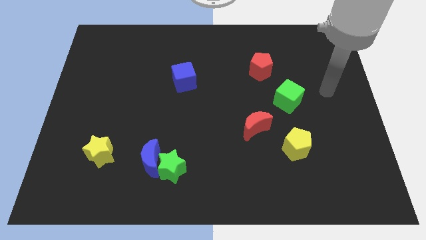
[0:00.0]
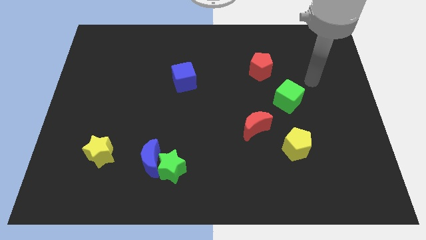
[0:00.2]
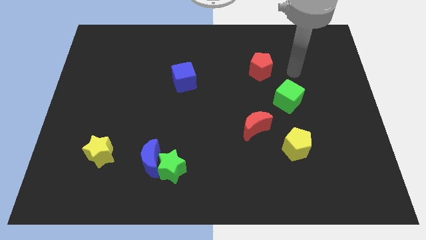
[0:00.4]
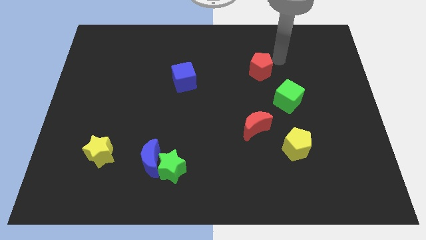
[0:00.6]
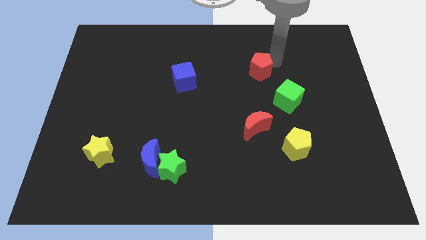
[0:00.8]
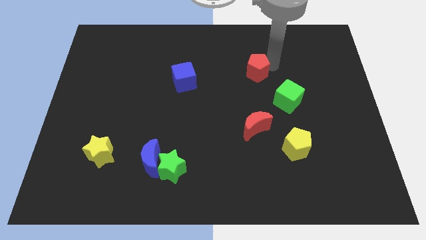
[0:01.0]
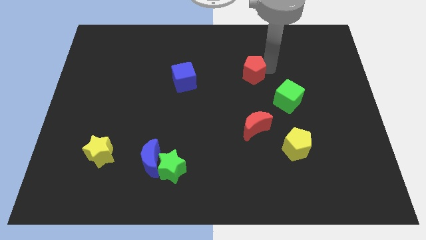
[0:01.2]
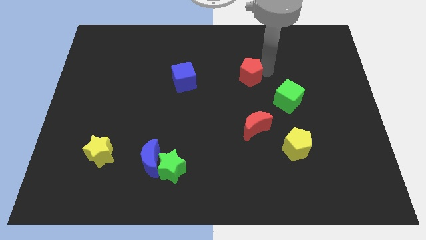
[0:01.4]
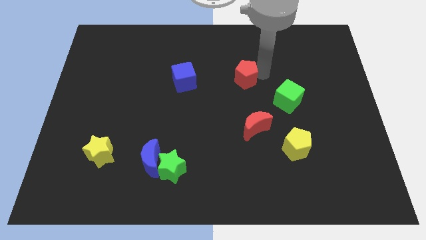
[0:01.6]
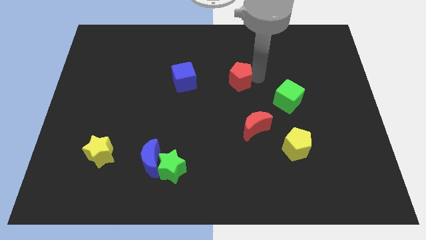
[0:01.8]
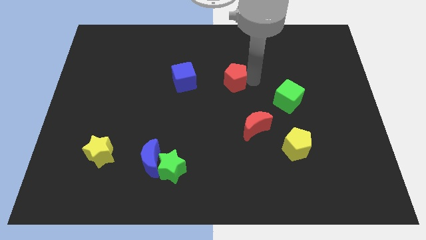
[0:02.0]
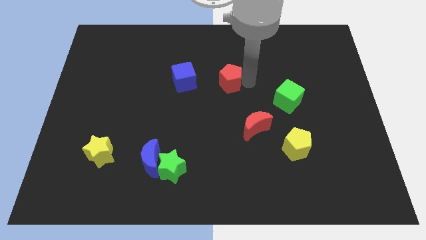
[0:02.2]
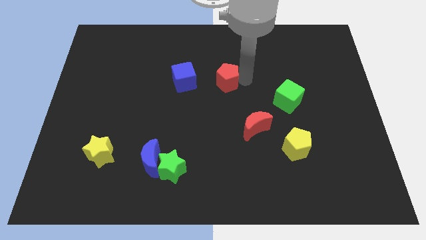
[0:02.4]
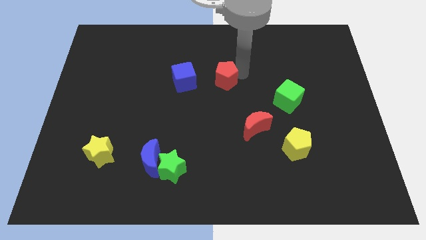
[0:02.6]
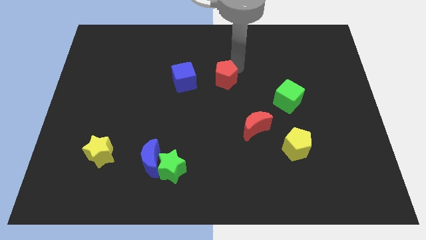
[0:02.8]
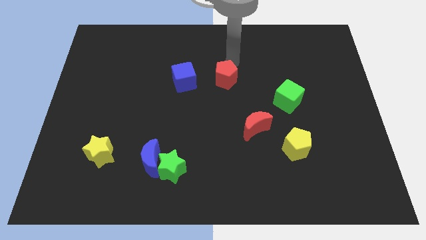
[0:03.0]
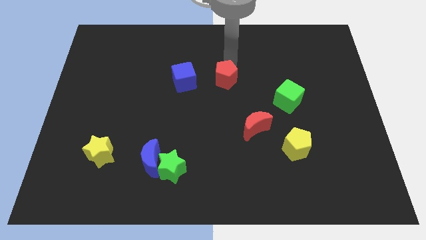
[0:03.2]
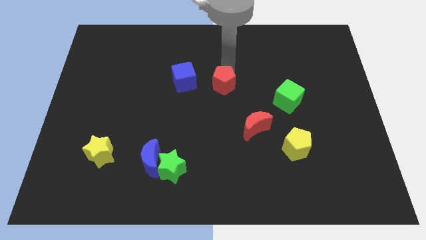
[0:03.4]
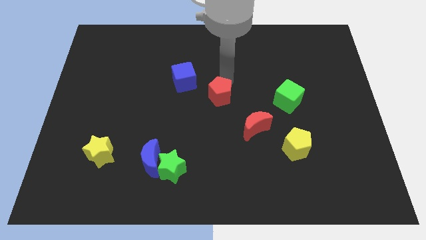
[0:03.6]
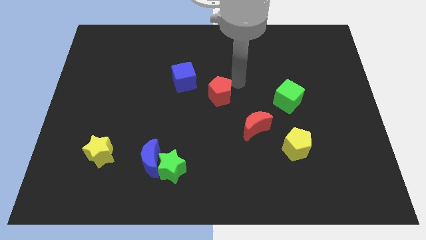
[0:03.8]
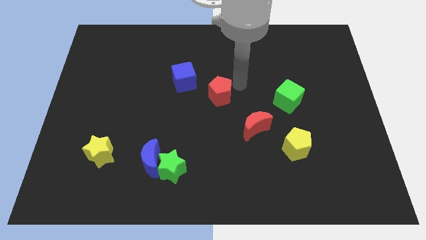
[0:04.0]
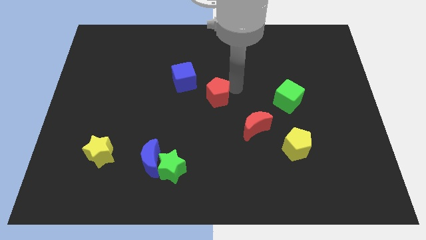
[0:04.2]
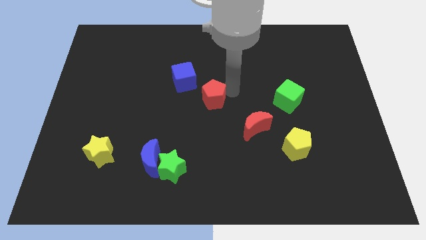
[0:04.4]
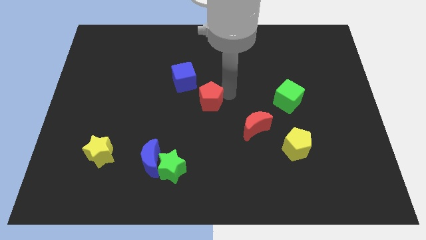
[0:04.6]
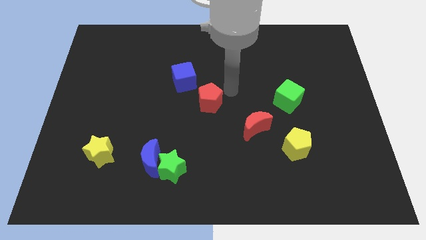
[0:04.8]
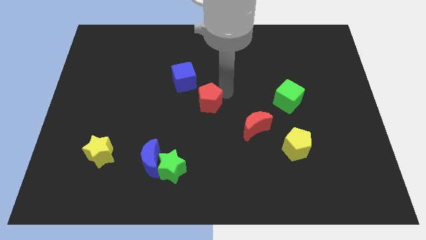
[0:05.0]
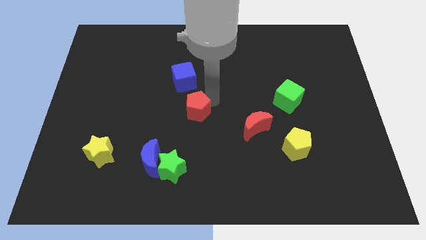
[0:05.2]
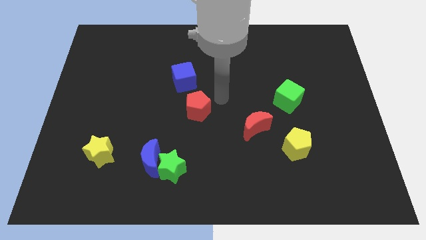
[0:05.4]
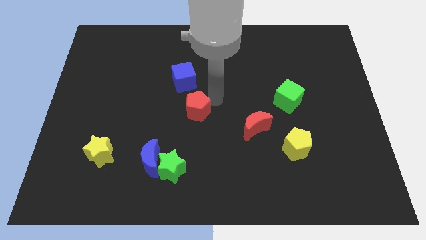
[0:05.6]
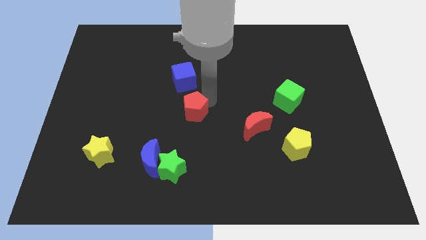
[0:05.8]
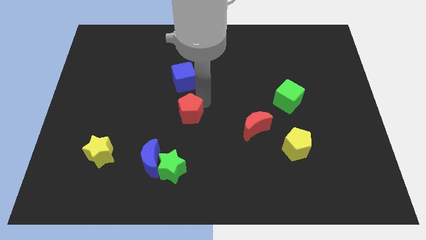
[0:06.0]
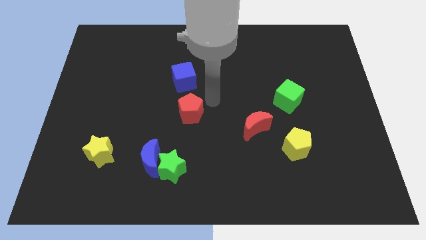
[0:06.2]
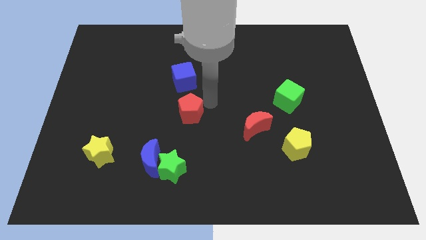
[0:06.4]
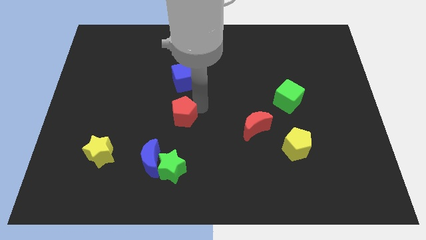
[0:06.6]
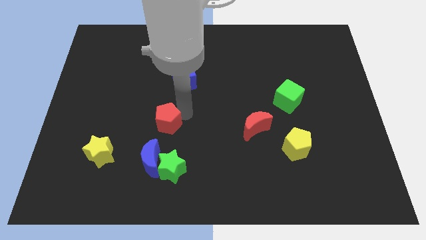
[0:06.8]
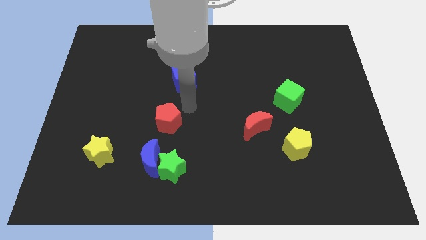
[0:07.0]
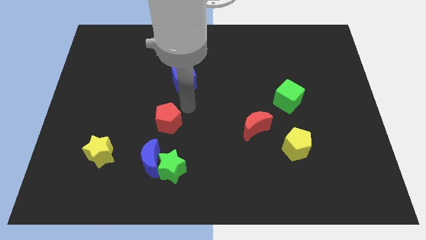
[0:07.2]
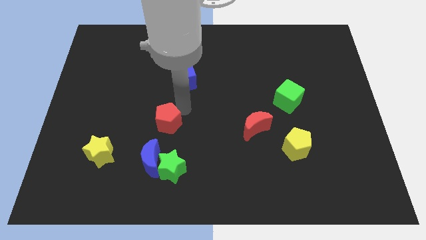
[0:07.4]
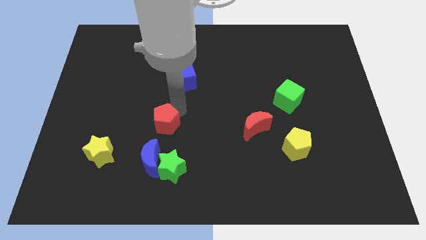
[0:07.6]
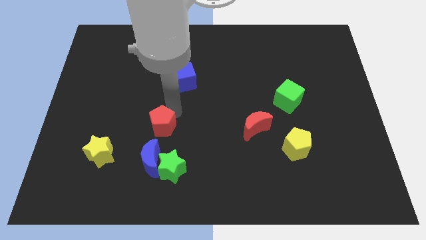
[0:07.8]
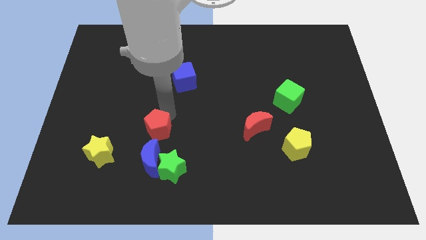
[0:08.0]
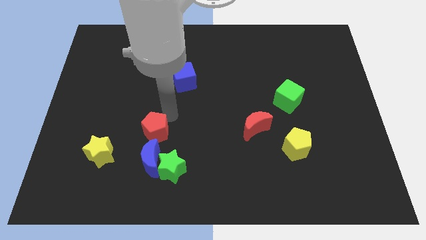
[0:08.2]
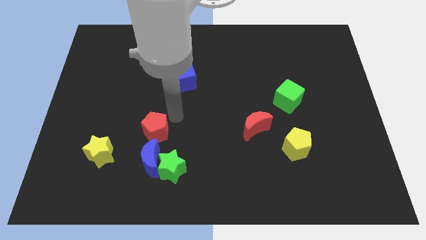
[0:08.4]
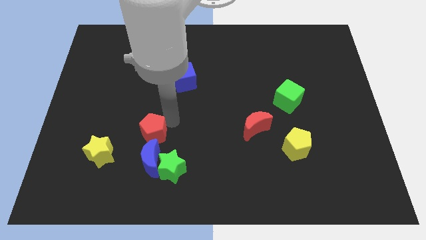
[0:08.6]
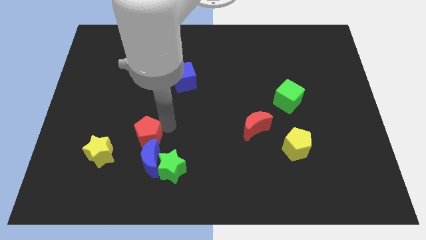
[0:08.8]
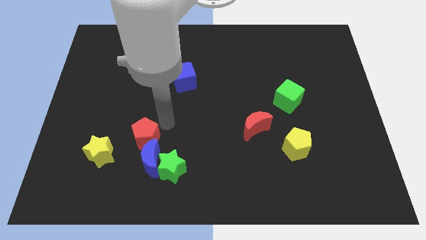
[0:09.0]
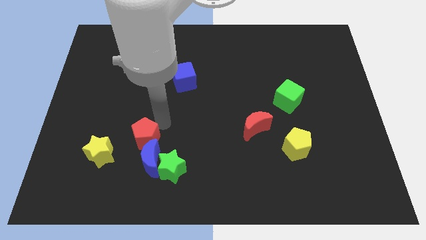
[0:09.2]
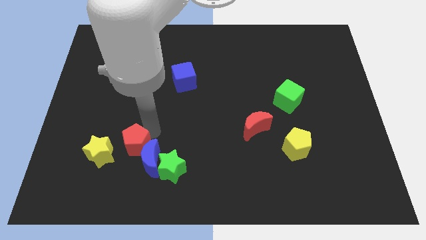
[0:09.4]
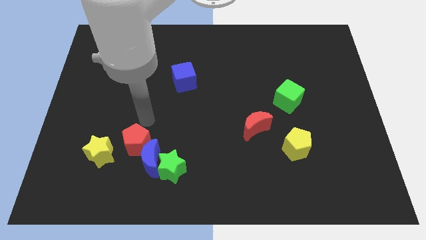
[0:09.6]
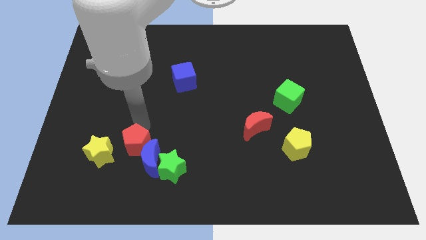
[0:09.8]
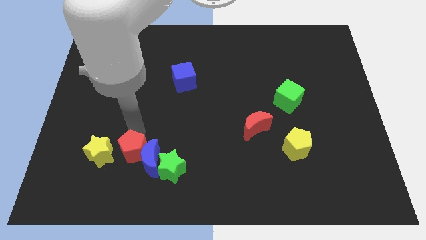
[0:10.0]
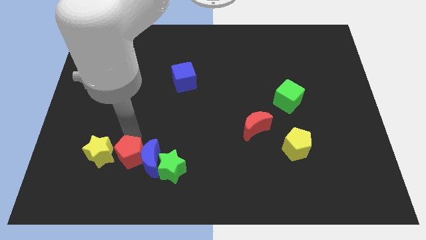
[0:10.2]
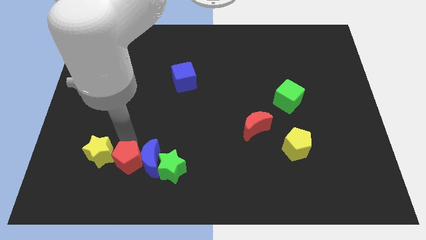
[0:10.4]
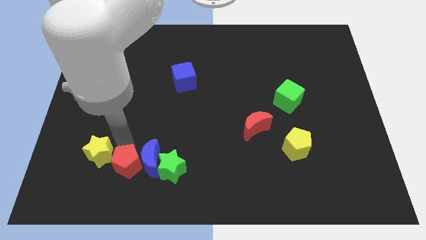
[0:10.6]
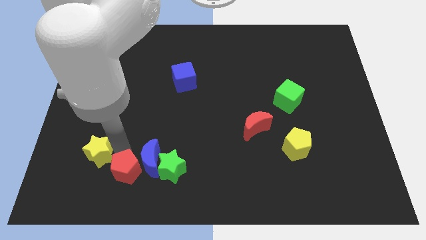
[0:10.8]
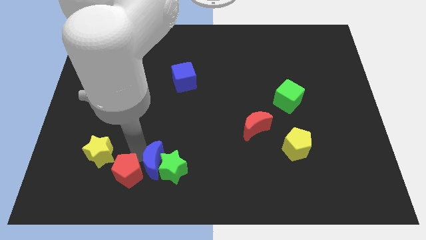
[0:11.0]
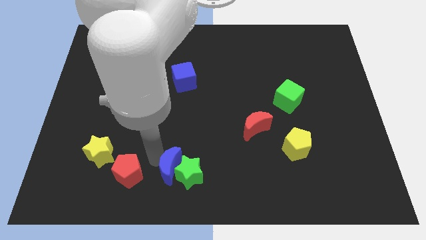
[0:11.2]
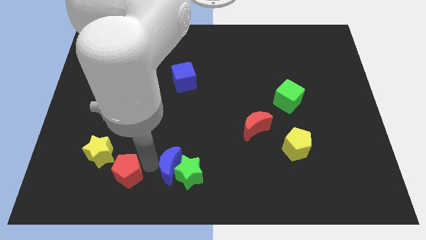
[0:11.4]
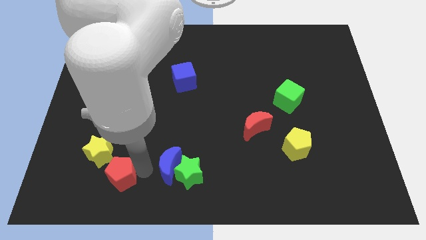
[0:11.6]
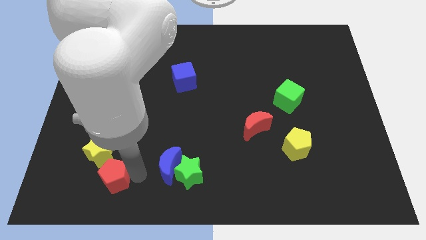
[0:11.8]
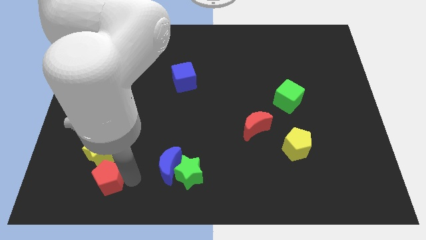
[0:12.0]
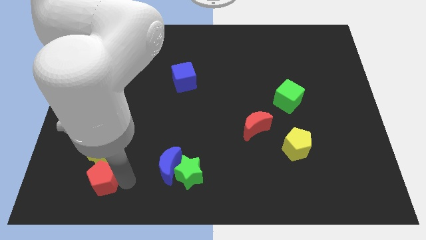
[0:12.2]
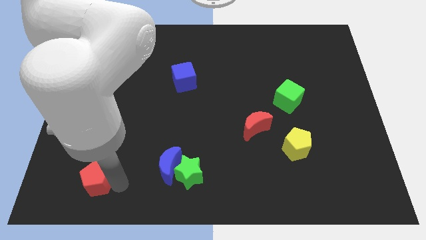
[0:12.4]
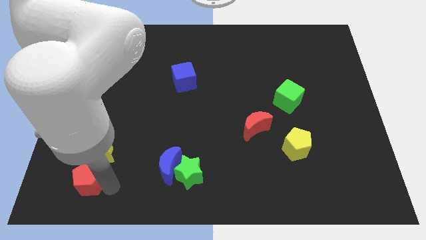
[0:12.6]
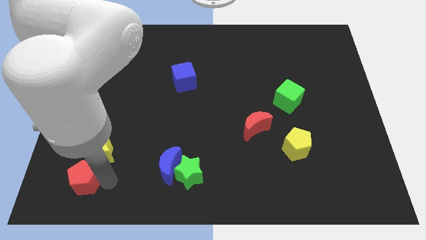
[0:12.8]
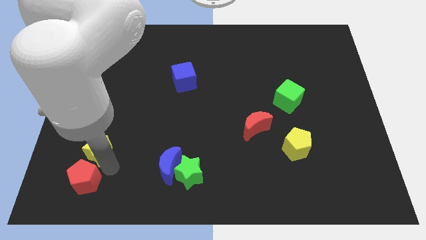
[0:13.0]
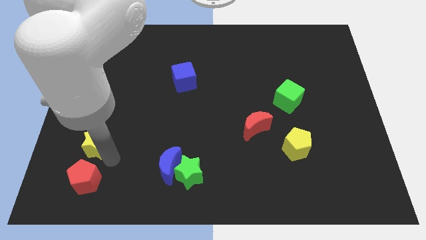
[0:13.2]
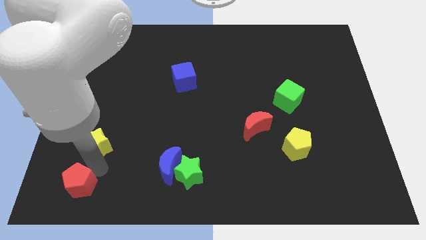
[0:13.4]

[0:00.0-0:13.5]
slide the red pentagon to the bottom left corner
